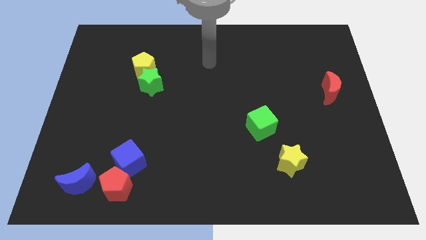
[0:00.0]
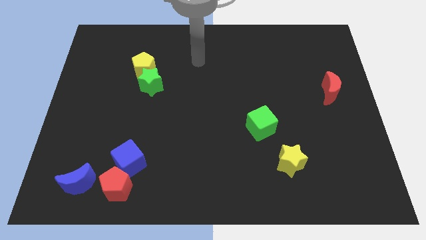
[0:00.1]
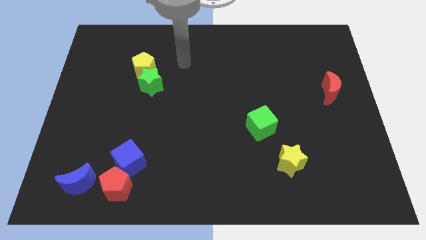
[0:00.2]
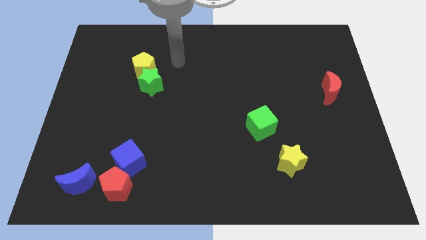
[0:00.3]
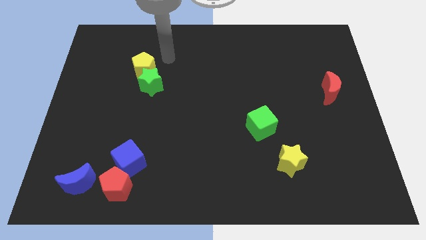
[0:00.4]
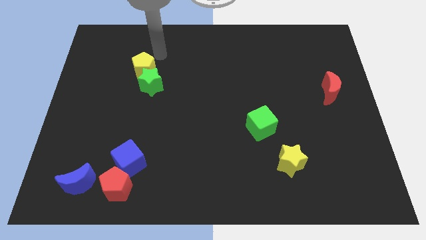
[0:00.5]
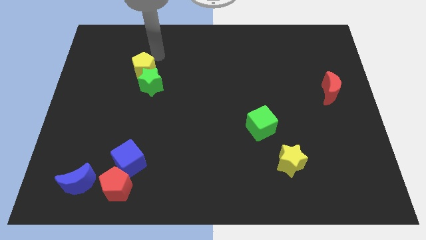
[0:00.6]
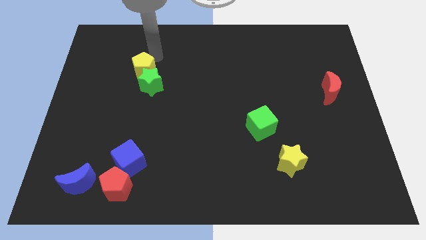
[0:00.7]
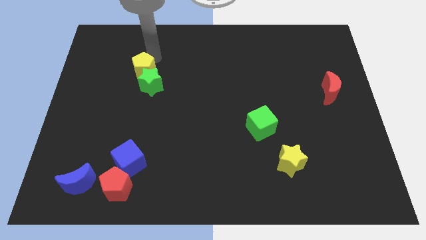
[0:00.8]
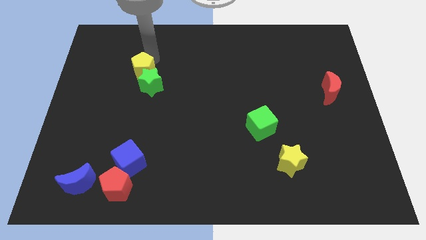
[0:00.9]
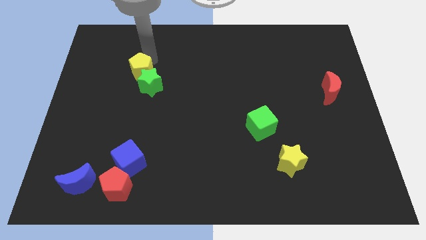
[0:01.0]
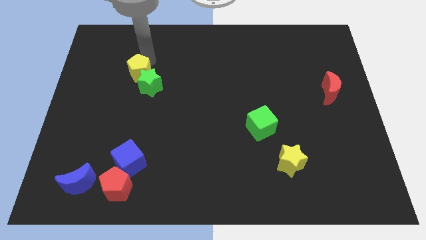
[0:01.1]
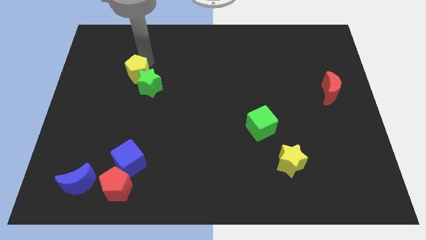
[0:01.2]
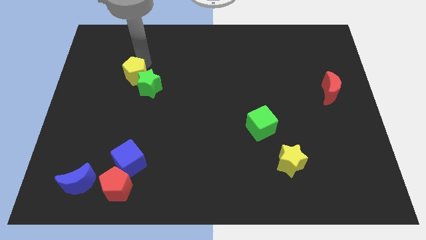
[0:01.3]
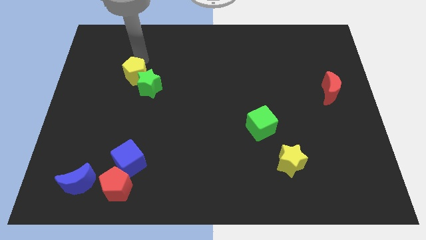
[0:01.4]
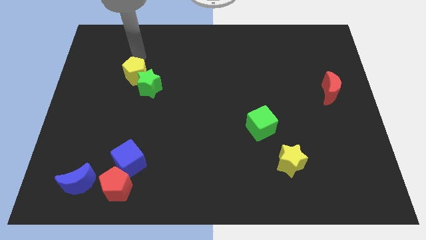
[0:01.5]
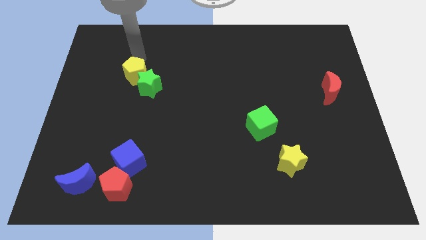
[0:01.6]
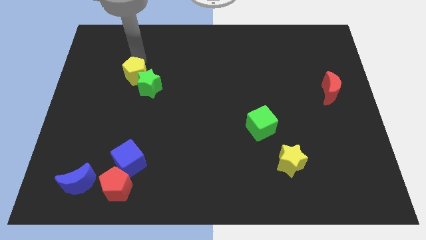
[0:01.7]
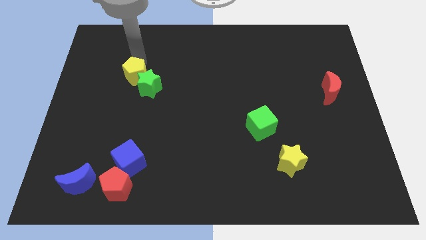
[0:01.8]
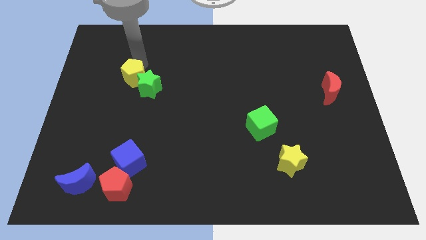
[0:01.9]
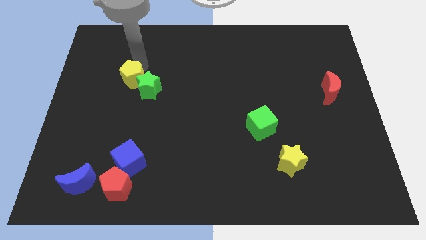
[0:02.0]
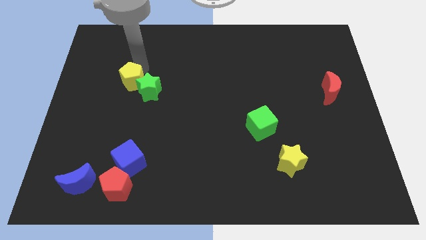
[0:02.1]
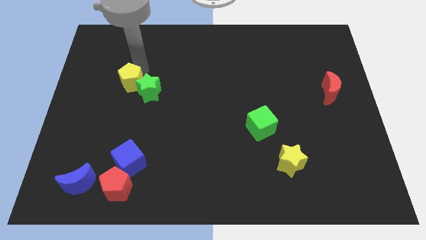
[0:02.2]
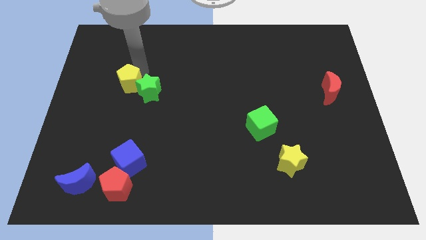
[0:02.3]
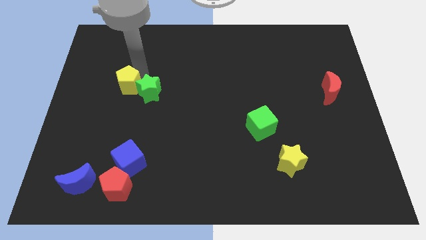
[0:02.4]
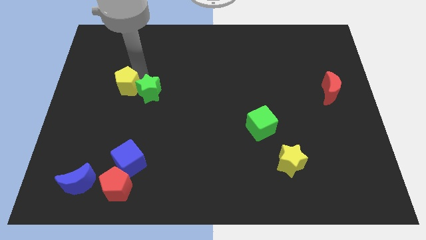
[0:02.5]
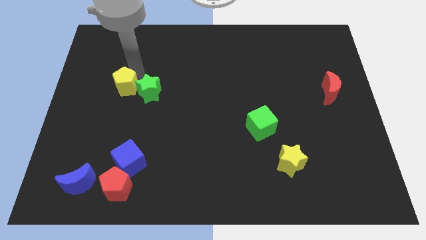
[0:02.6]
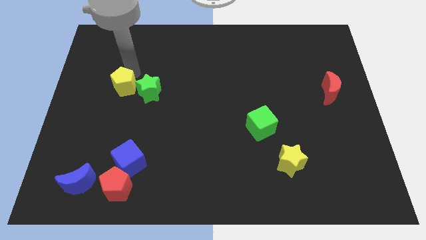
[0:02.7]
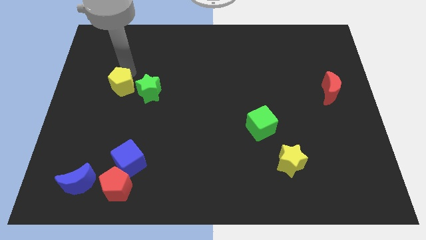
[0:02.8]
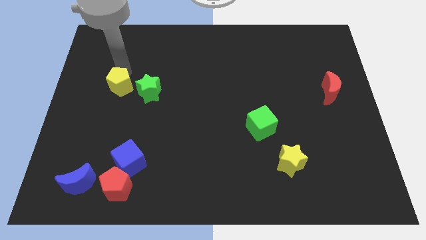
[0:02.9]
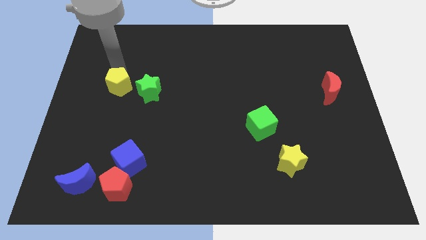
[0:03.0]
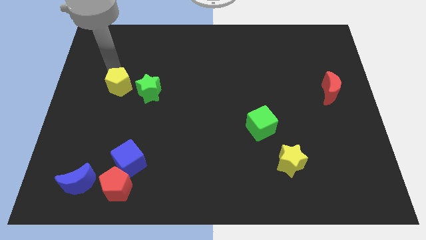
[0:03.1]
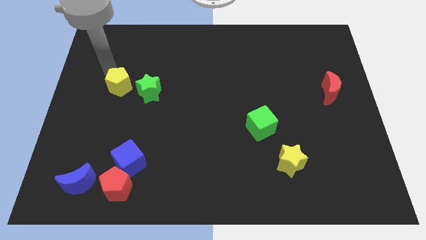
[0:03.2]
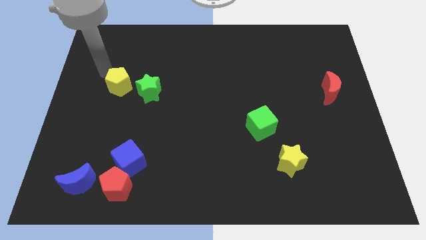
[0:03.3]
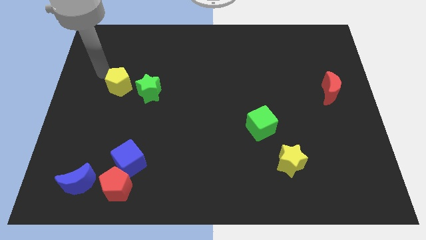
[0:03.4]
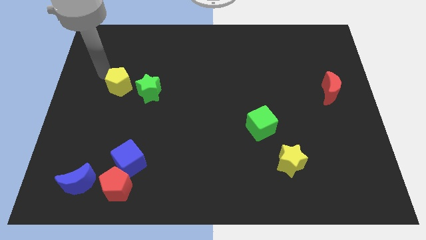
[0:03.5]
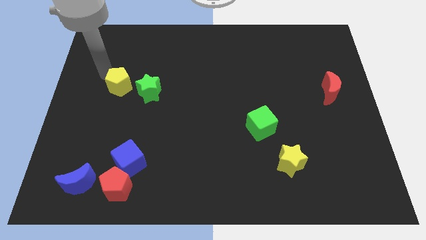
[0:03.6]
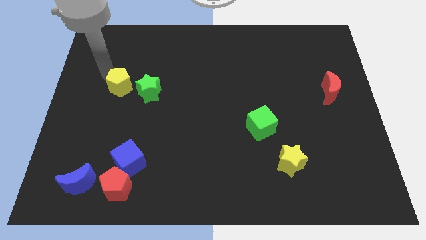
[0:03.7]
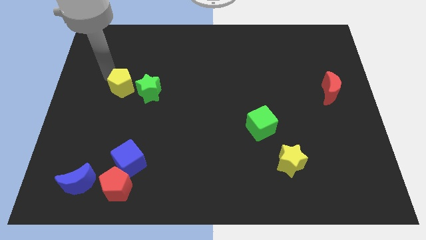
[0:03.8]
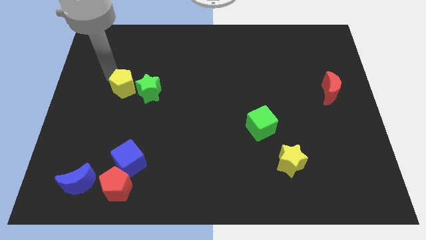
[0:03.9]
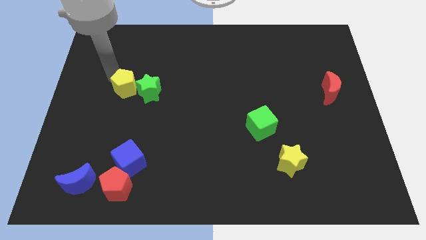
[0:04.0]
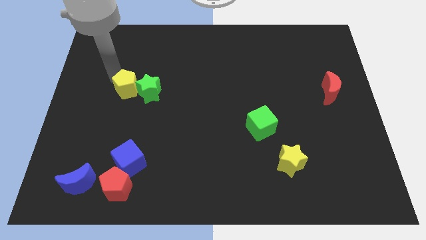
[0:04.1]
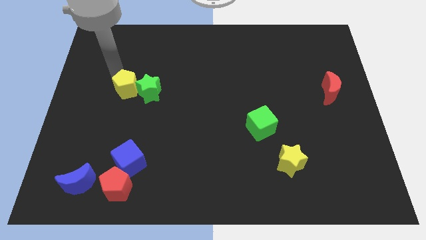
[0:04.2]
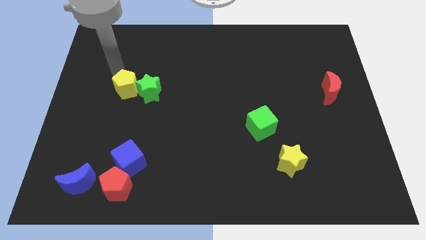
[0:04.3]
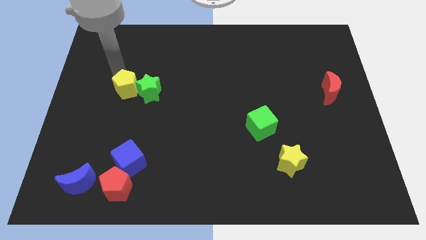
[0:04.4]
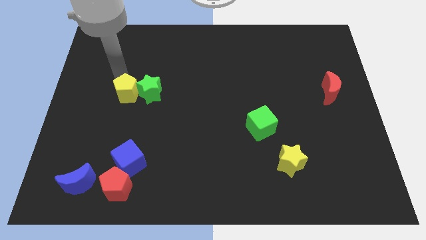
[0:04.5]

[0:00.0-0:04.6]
push the yellow pentagon down a little

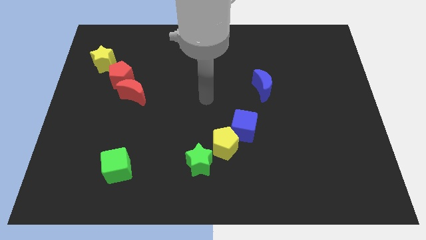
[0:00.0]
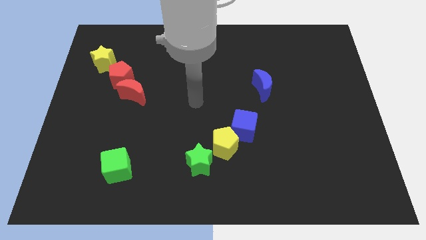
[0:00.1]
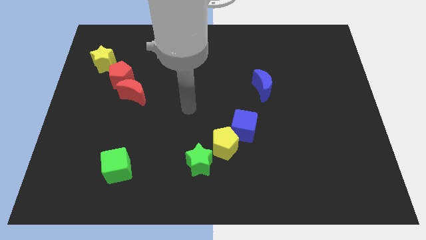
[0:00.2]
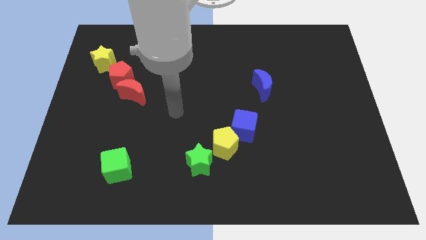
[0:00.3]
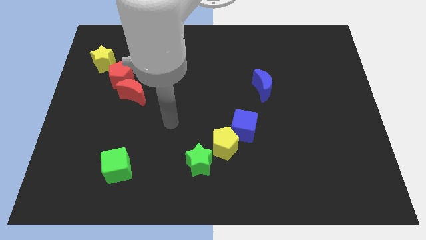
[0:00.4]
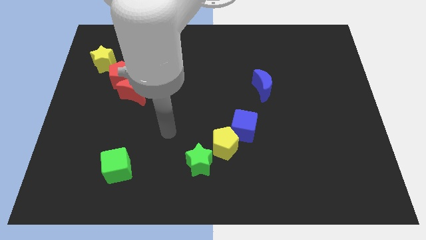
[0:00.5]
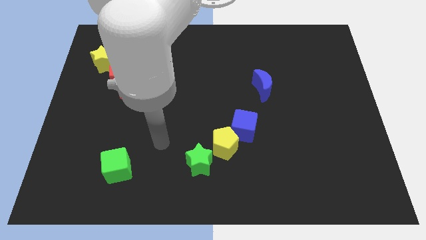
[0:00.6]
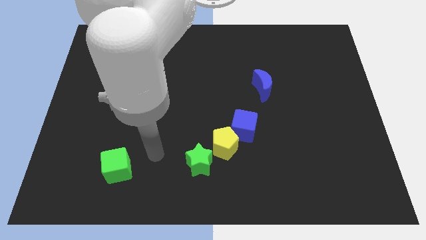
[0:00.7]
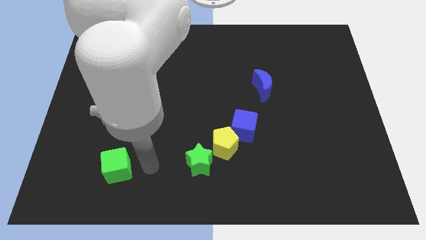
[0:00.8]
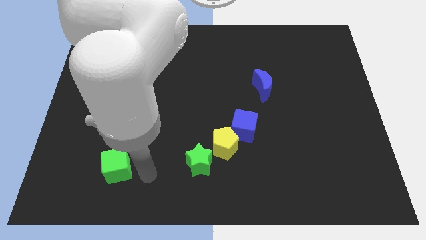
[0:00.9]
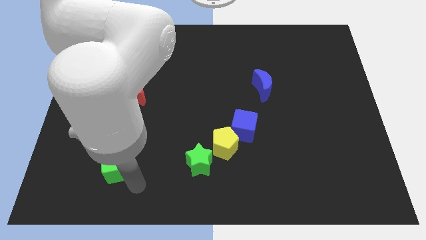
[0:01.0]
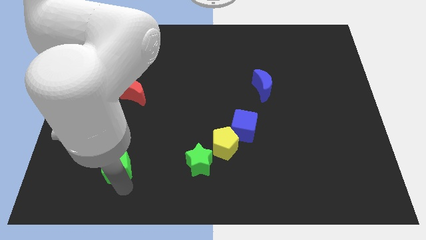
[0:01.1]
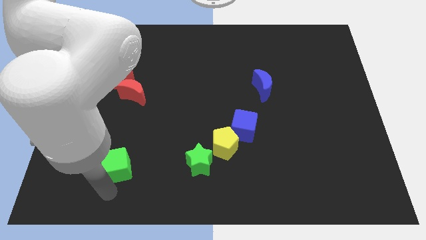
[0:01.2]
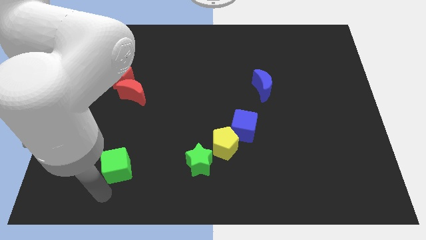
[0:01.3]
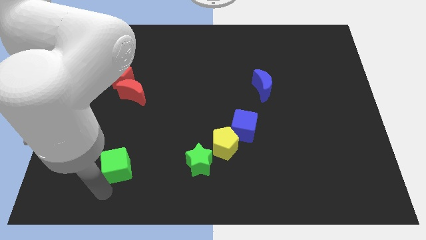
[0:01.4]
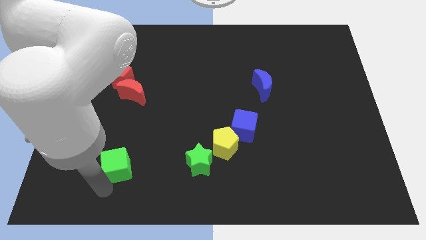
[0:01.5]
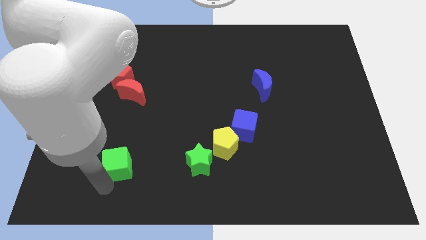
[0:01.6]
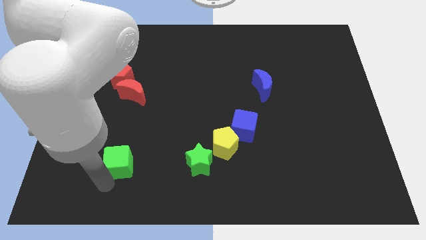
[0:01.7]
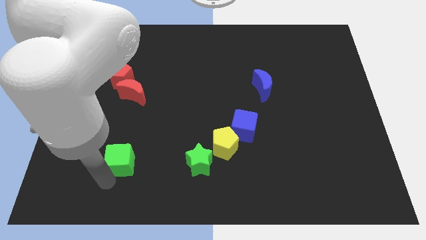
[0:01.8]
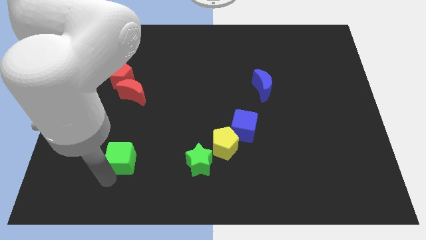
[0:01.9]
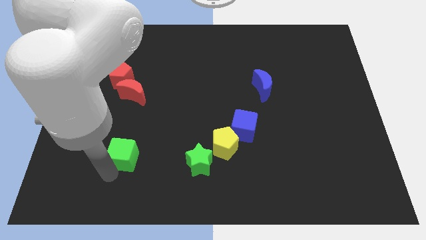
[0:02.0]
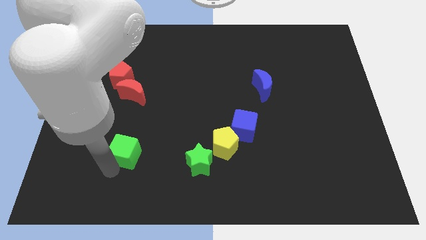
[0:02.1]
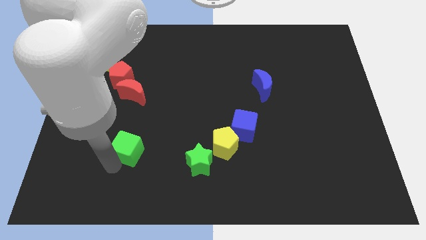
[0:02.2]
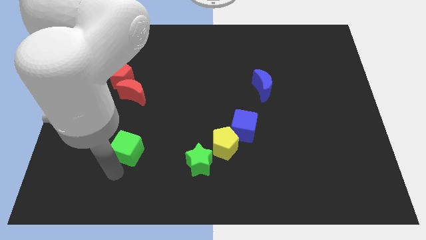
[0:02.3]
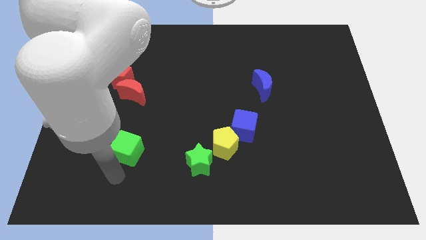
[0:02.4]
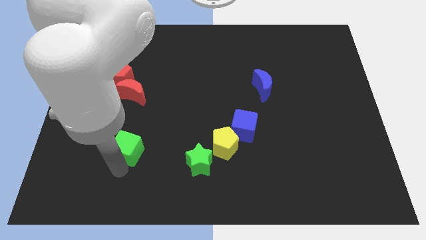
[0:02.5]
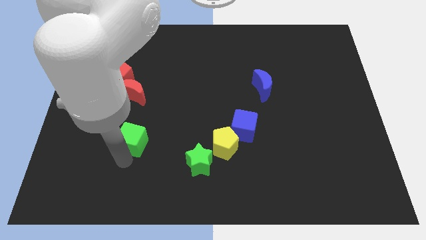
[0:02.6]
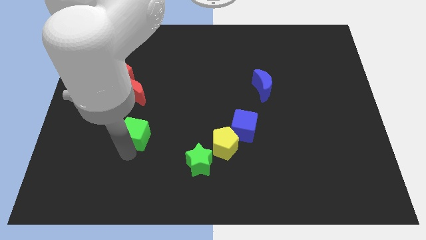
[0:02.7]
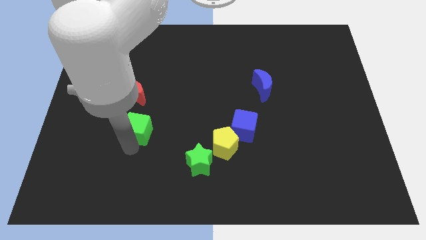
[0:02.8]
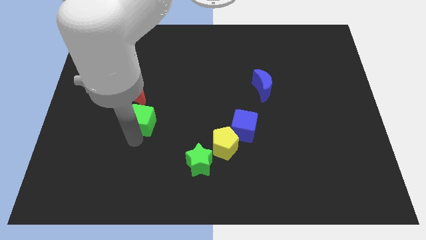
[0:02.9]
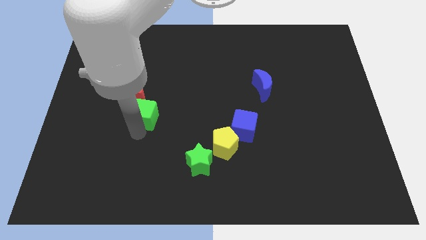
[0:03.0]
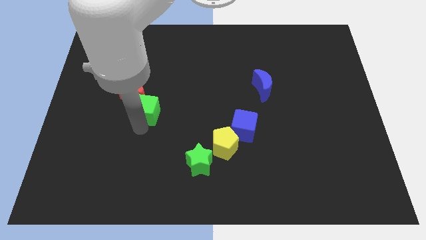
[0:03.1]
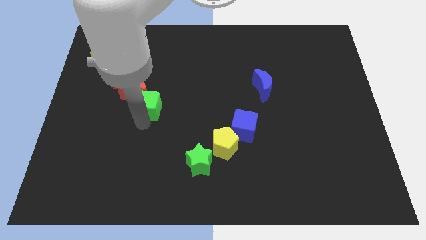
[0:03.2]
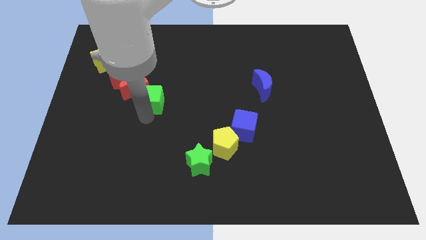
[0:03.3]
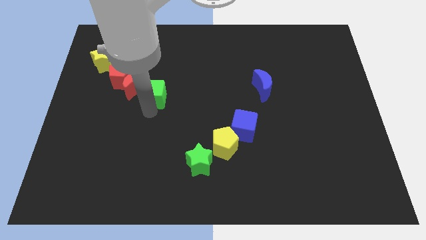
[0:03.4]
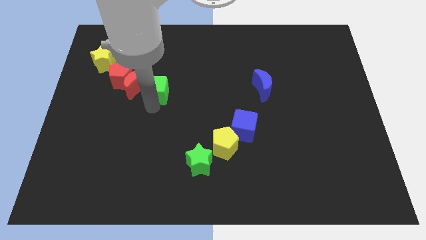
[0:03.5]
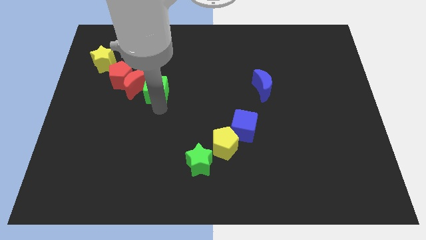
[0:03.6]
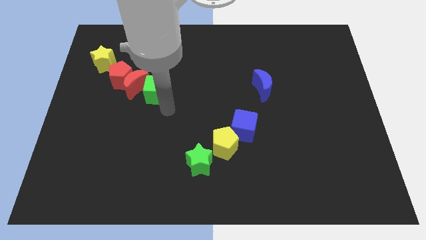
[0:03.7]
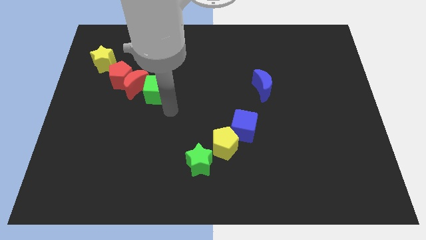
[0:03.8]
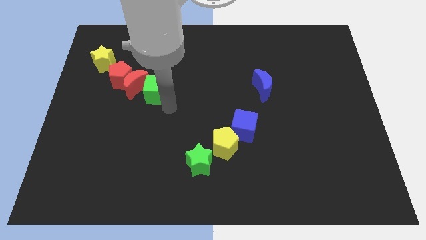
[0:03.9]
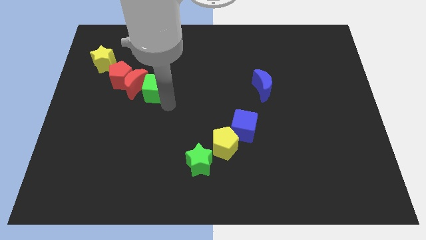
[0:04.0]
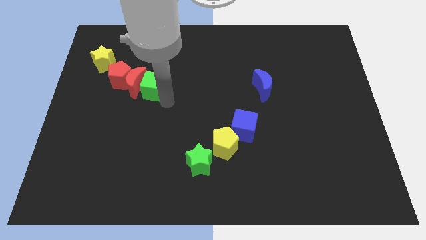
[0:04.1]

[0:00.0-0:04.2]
slide the green cube upwards
